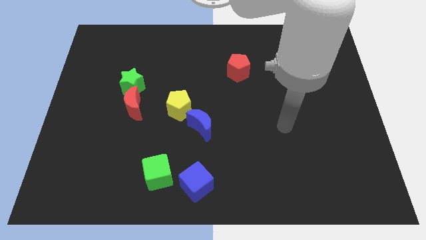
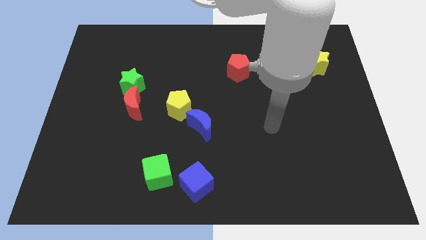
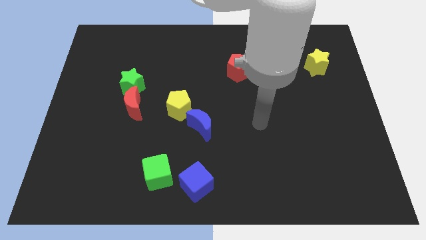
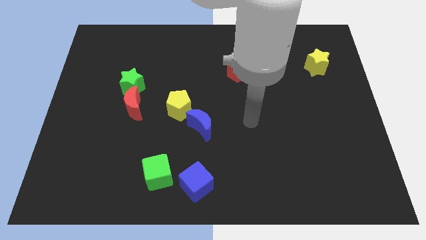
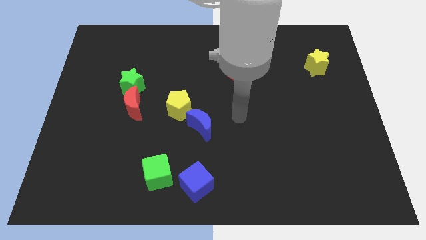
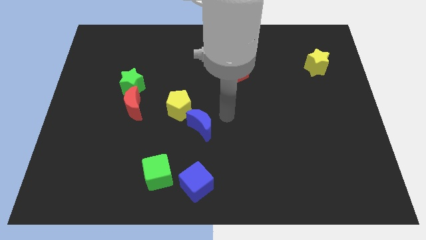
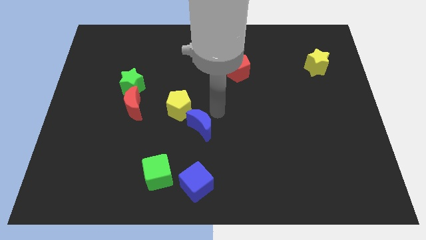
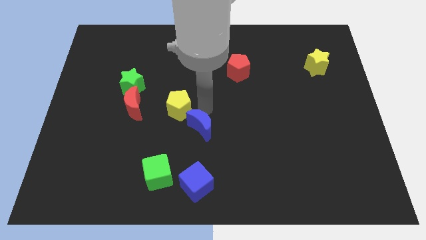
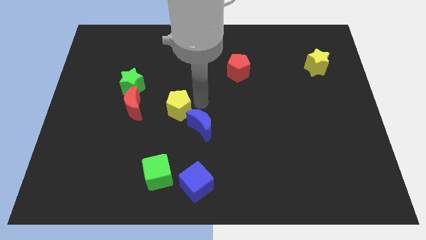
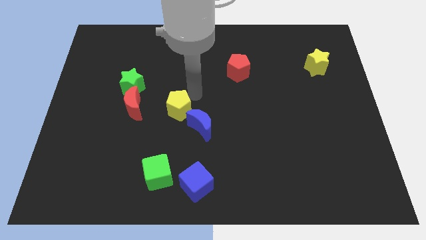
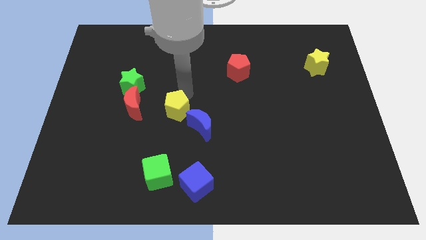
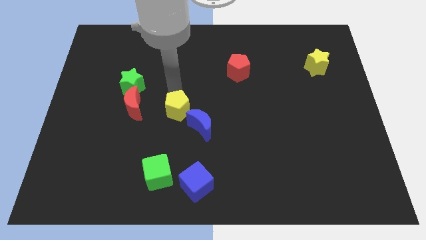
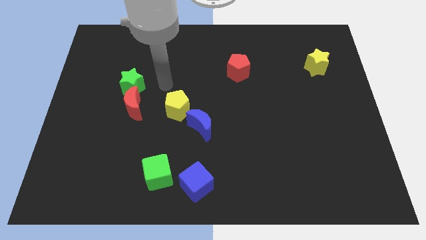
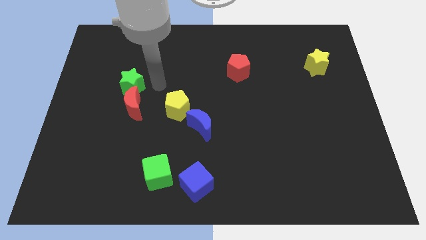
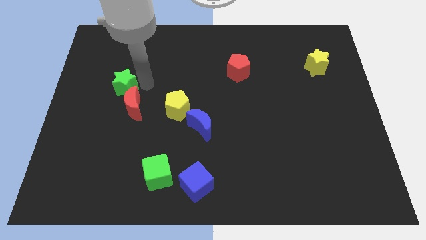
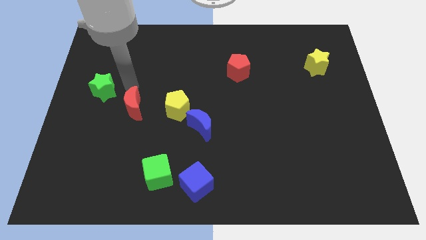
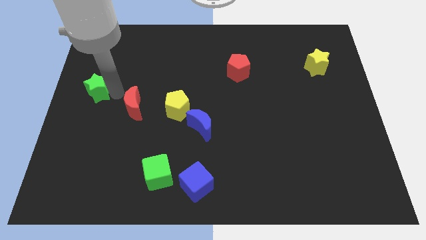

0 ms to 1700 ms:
separate the red moon from the green star

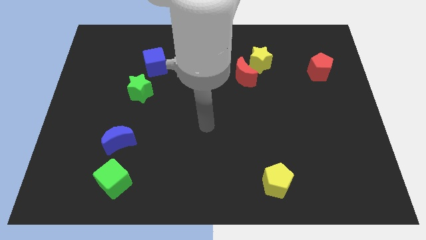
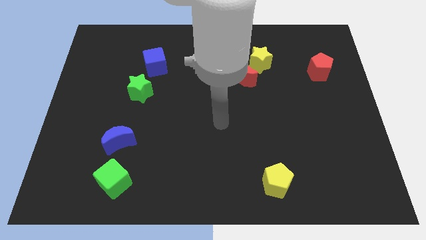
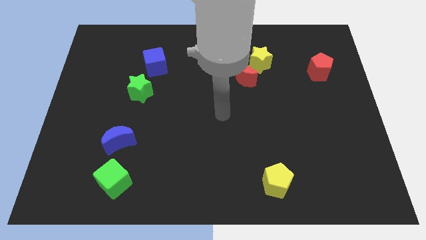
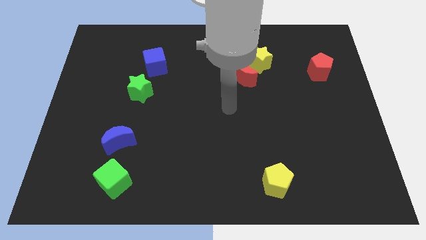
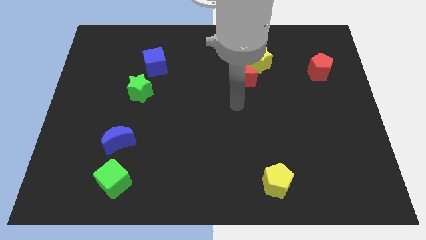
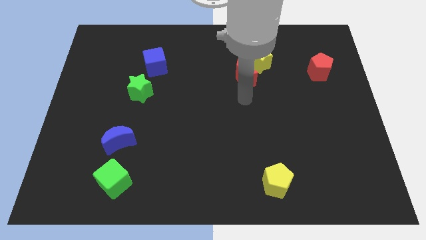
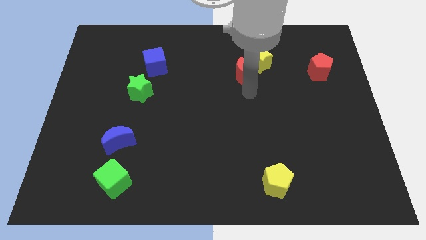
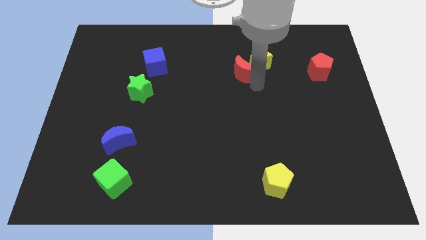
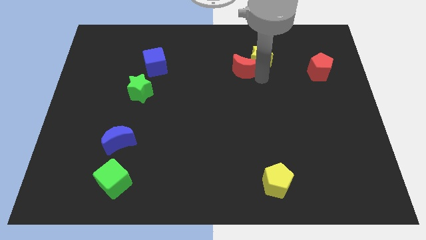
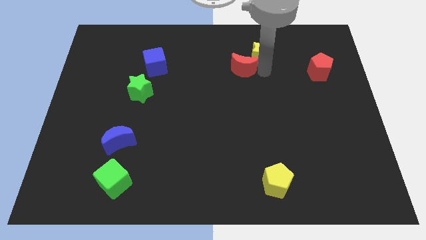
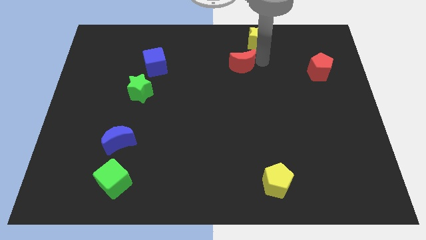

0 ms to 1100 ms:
move the red moon away from the yellow star

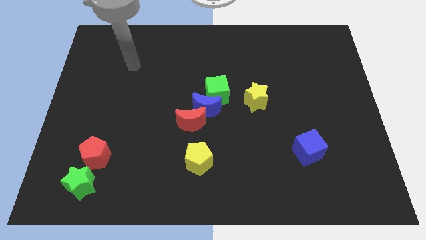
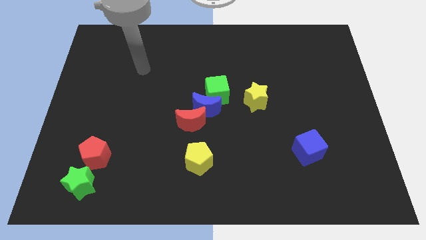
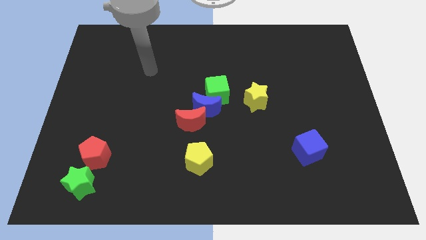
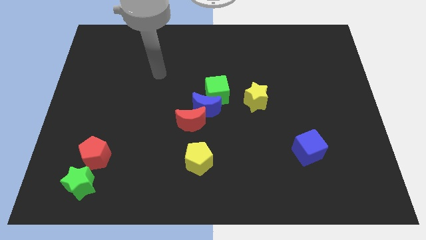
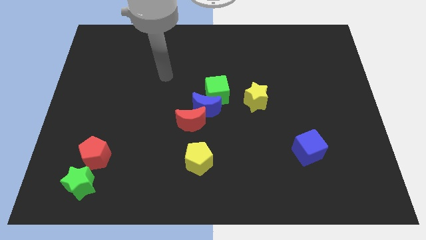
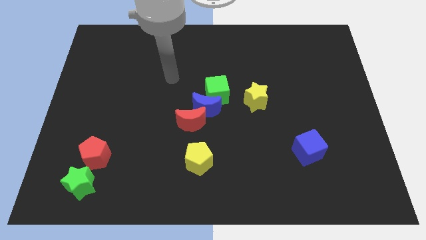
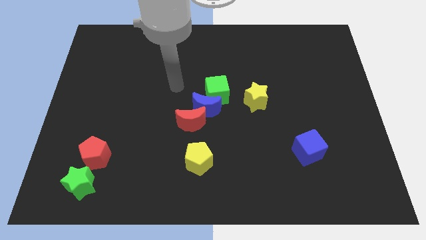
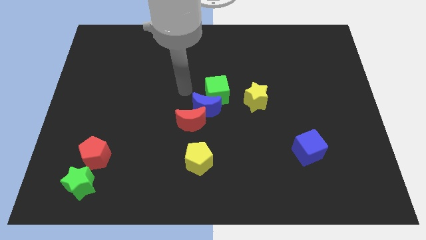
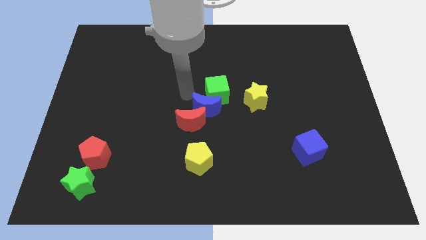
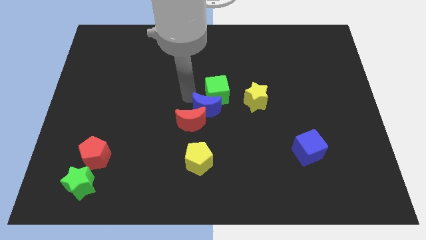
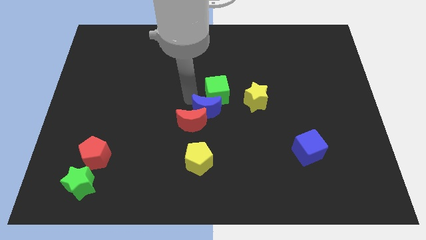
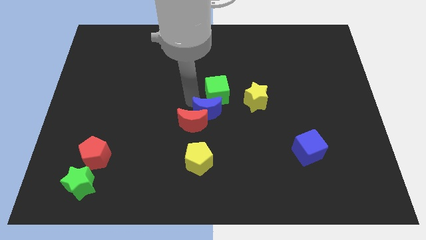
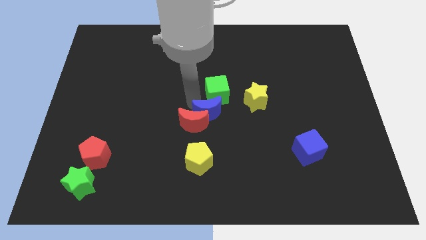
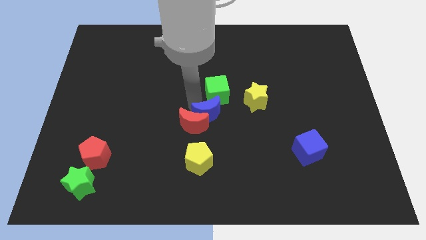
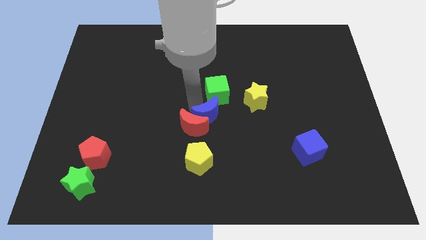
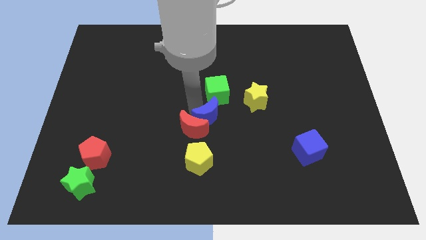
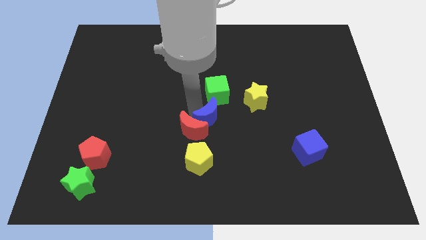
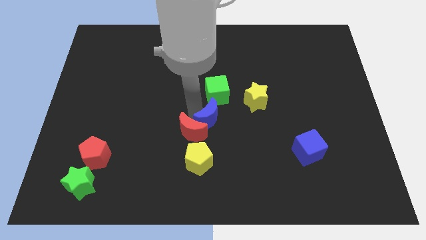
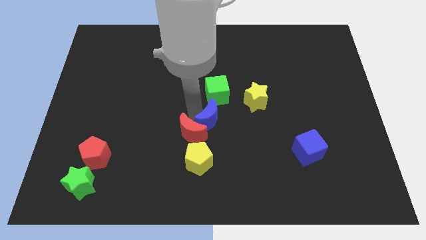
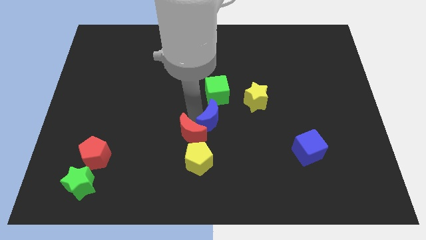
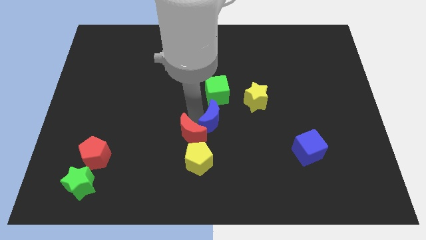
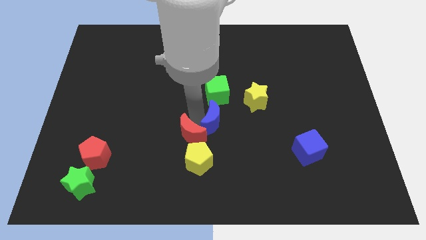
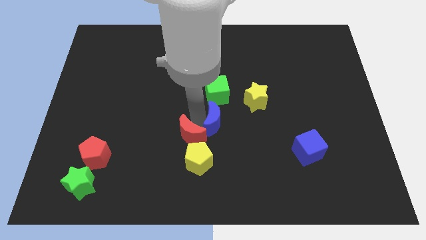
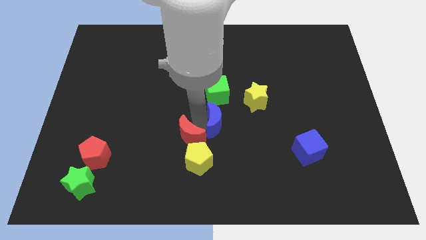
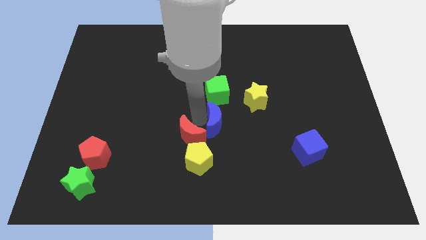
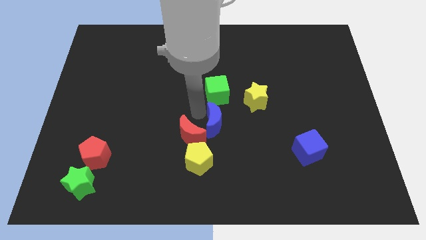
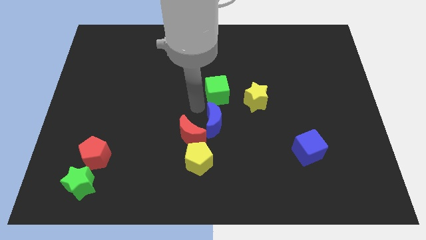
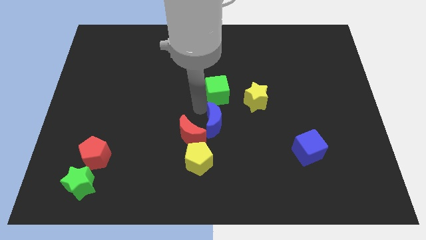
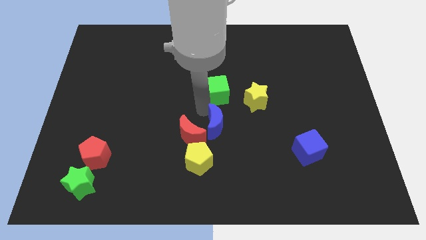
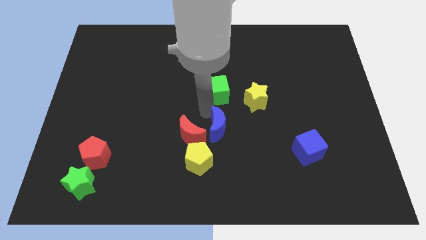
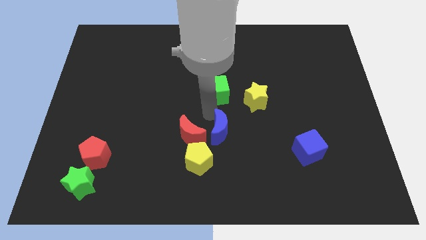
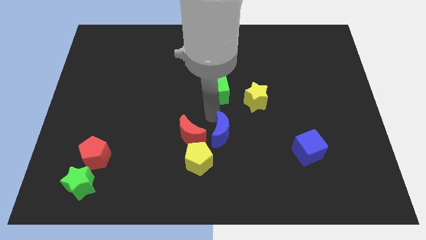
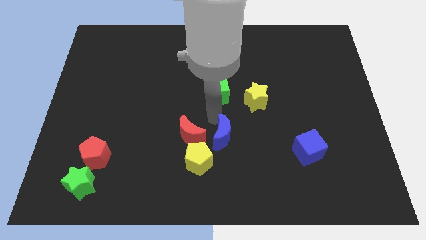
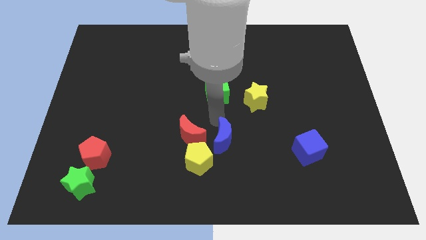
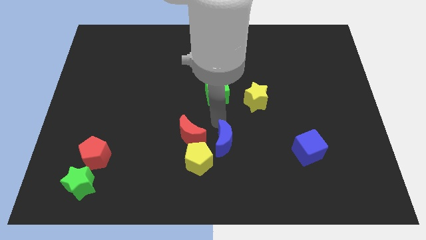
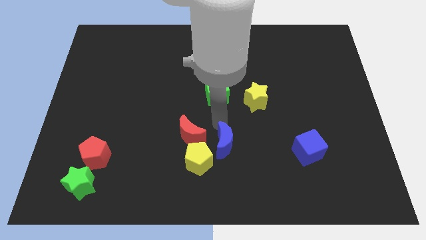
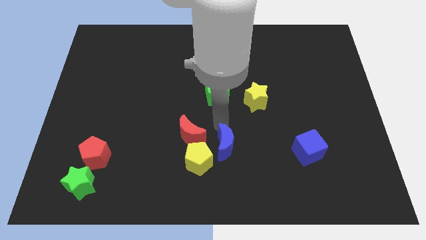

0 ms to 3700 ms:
separate the blue moon from the red moon and green cube

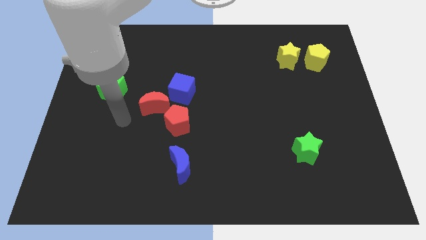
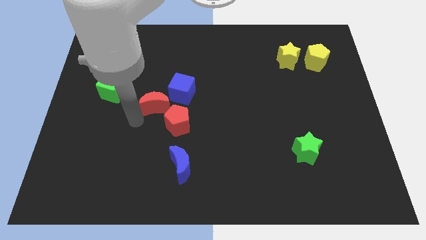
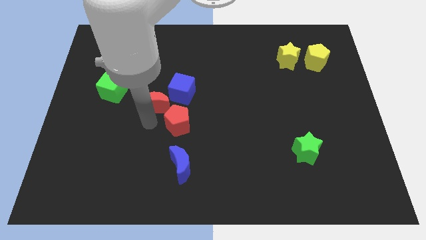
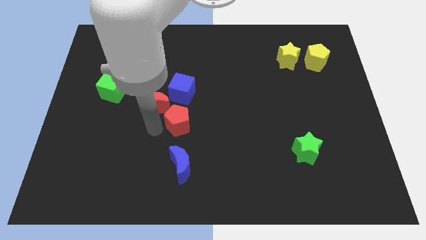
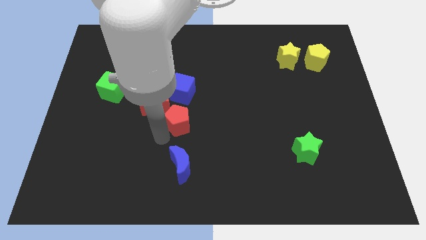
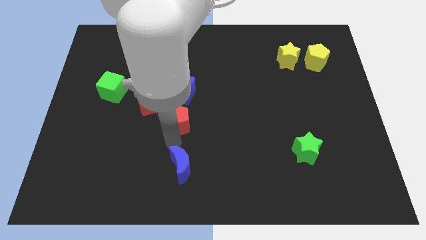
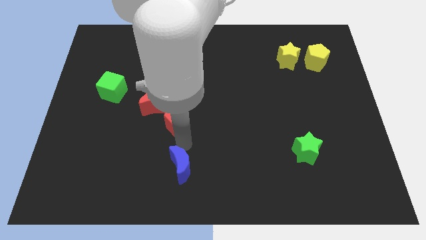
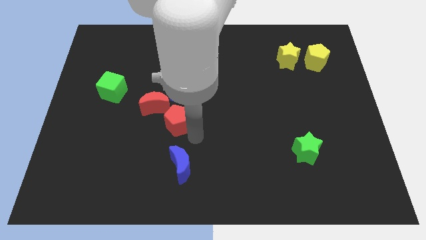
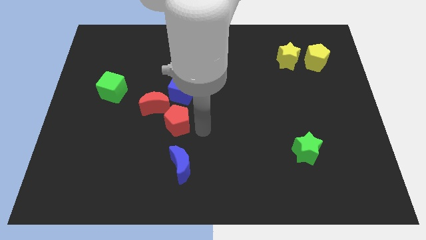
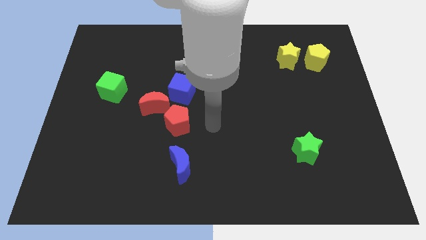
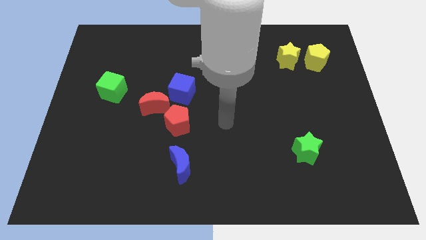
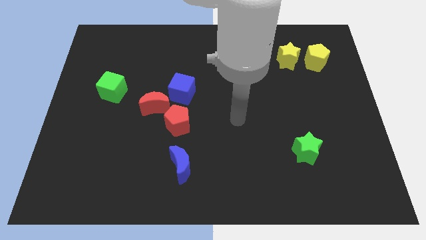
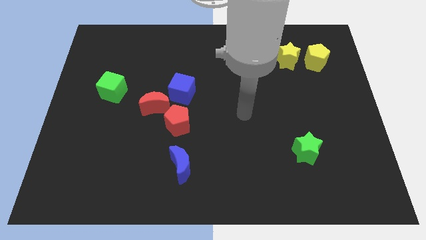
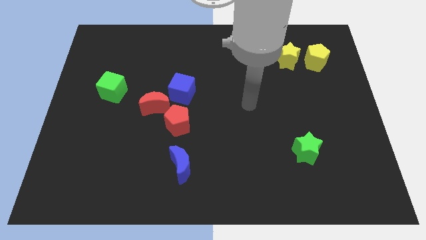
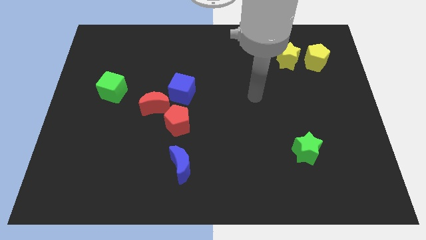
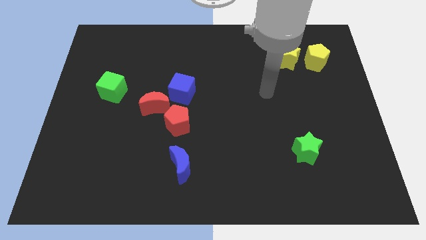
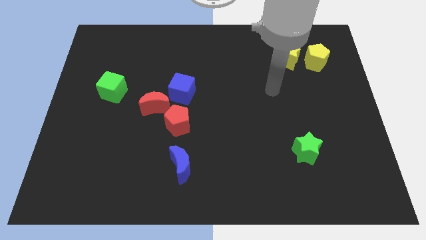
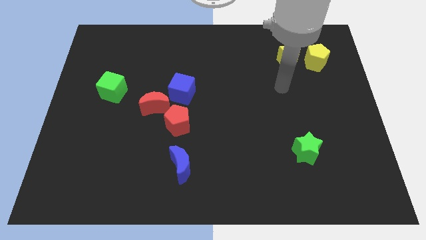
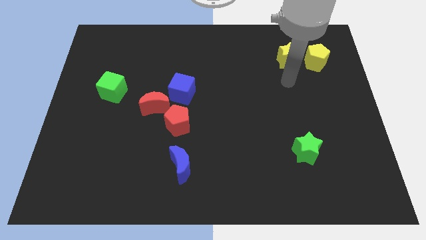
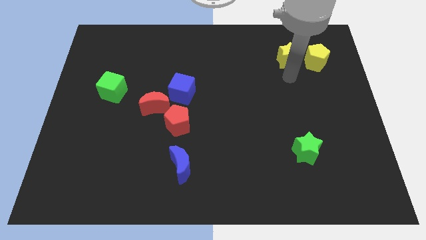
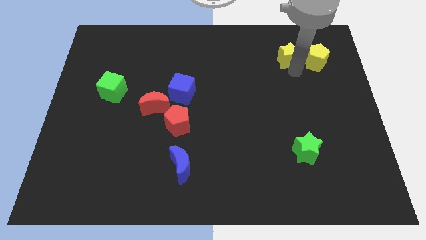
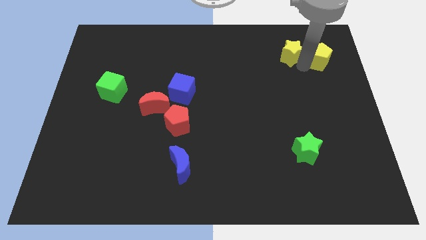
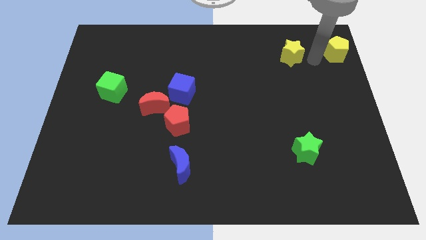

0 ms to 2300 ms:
separate the yellow star from the yellow pentagon

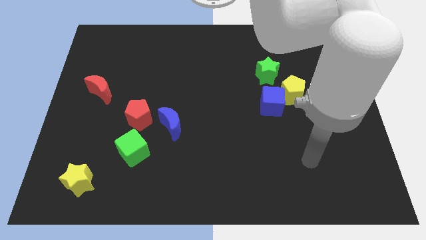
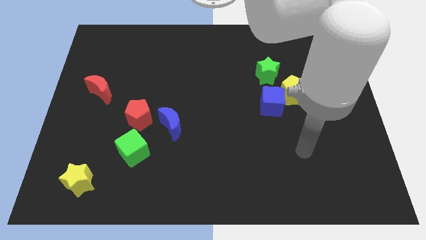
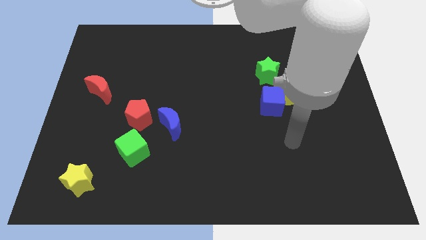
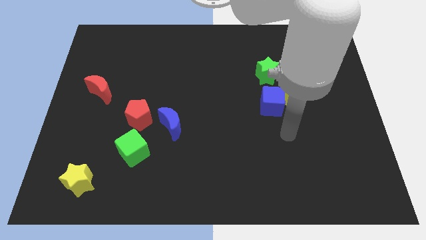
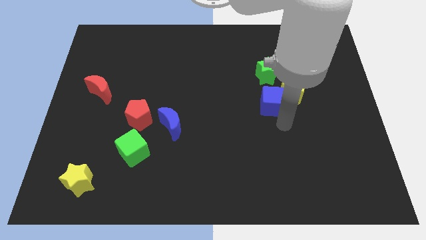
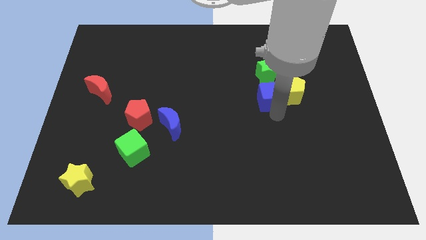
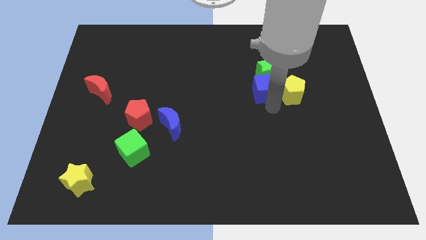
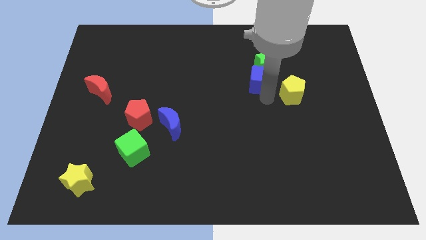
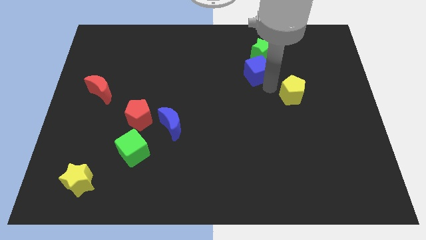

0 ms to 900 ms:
move the yellow pentagon away from the blue cube and green star
